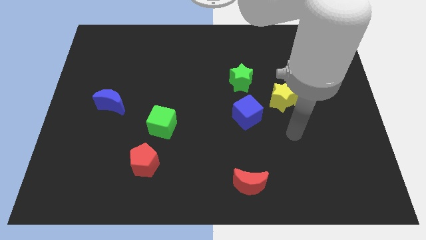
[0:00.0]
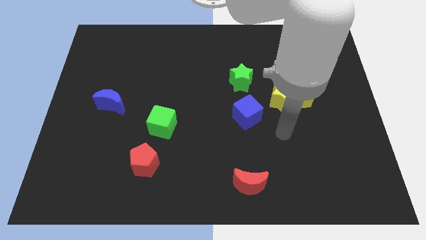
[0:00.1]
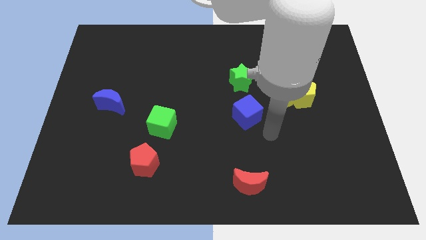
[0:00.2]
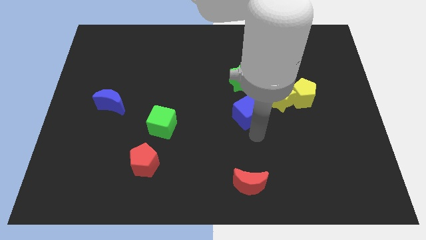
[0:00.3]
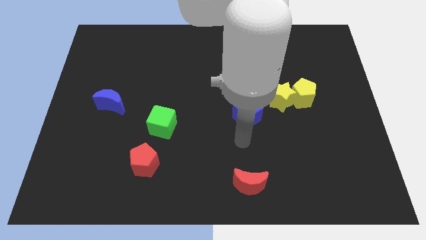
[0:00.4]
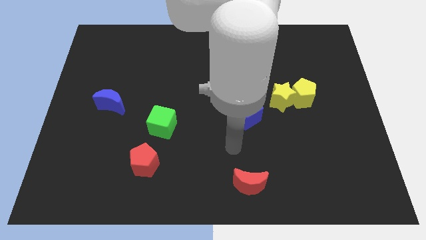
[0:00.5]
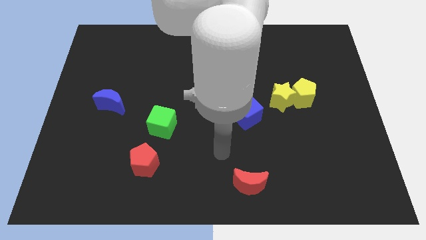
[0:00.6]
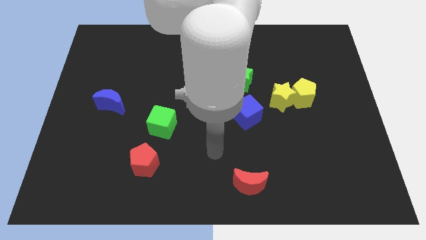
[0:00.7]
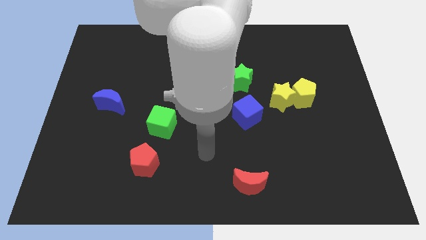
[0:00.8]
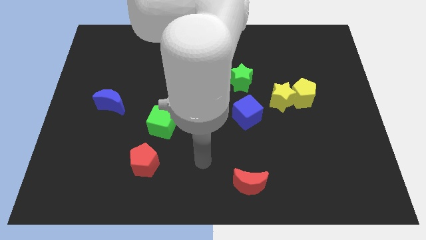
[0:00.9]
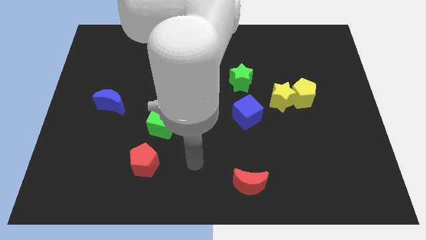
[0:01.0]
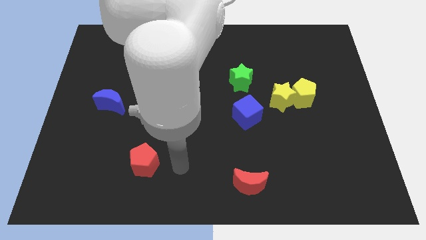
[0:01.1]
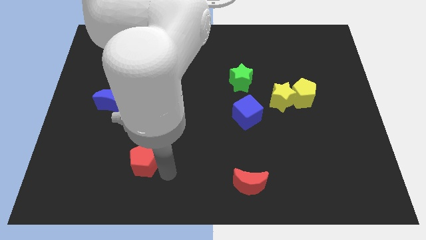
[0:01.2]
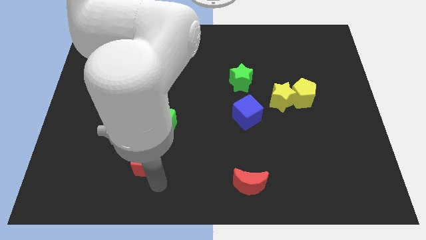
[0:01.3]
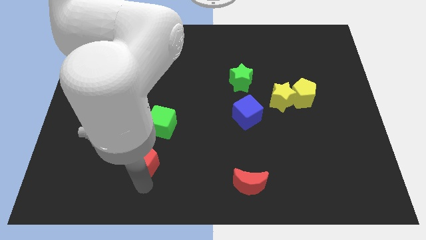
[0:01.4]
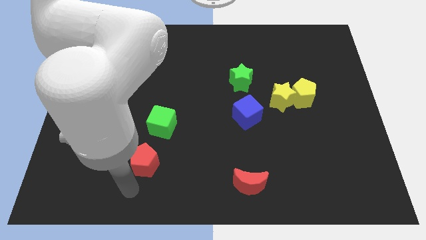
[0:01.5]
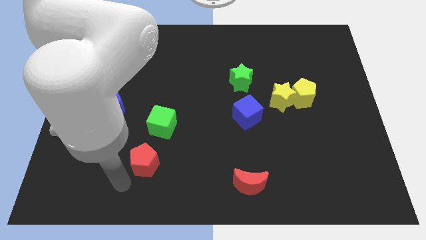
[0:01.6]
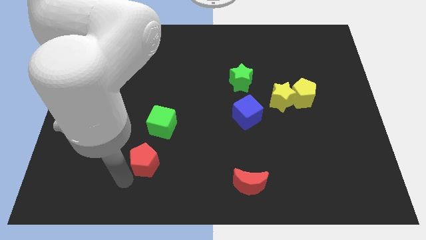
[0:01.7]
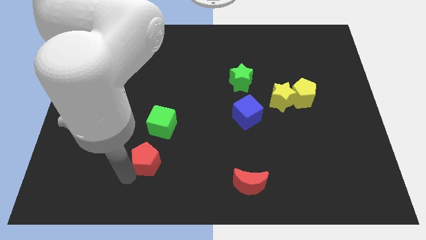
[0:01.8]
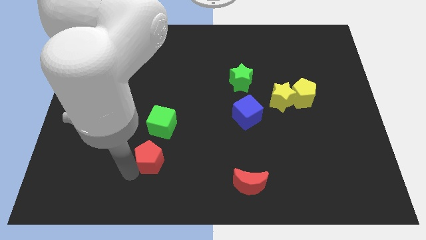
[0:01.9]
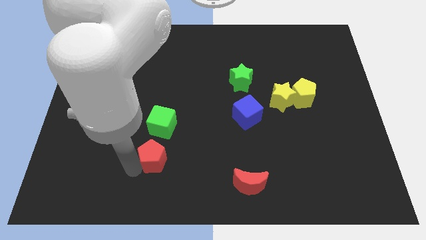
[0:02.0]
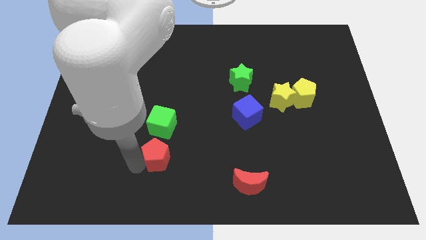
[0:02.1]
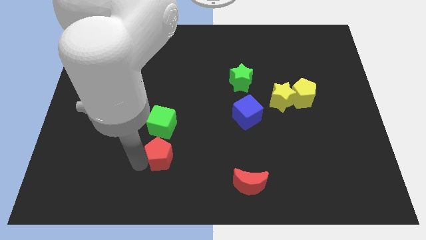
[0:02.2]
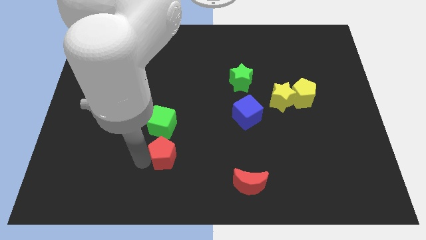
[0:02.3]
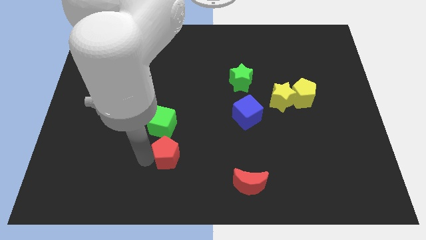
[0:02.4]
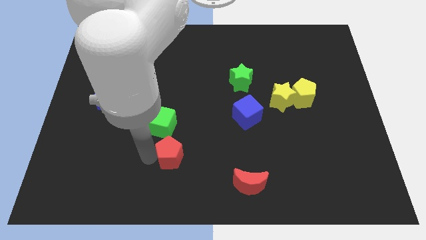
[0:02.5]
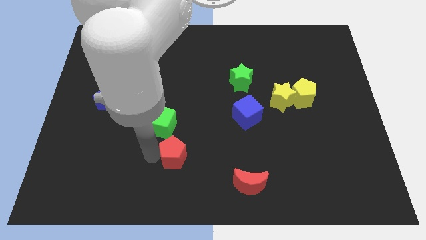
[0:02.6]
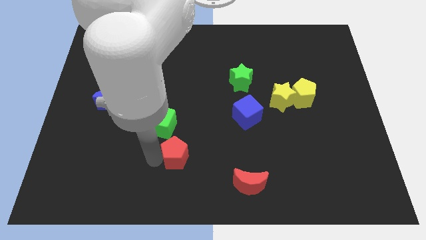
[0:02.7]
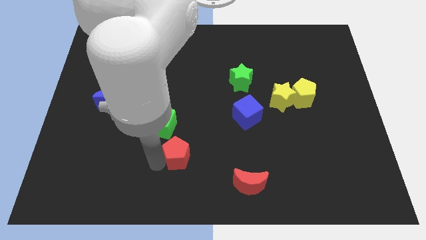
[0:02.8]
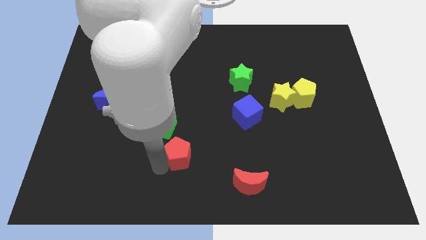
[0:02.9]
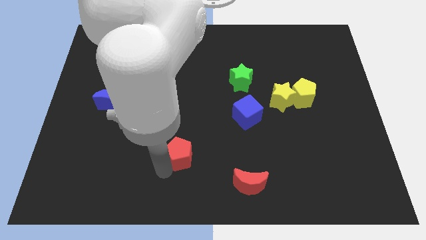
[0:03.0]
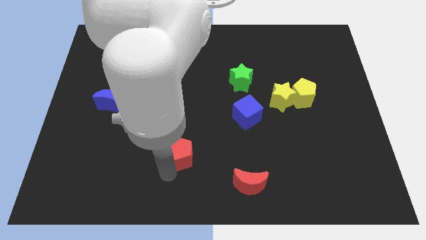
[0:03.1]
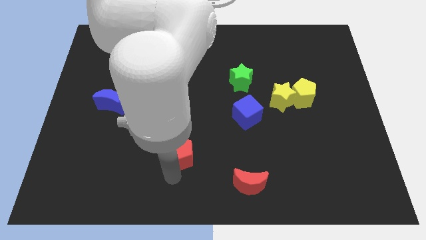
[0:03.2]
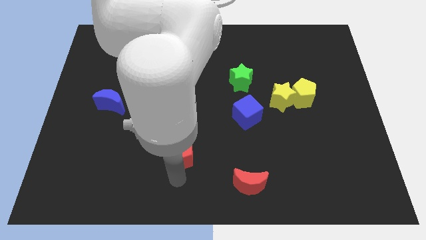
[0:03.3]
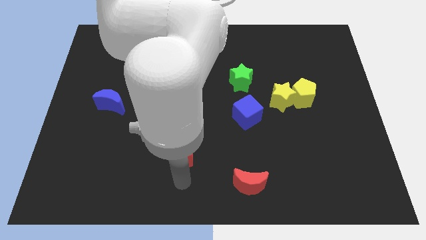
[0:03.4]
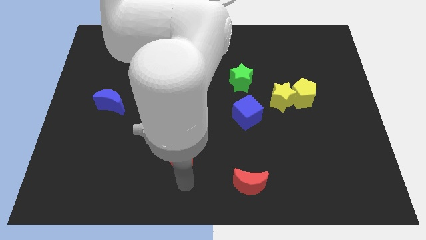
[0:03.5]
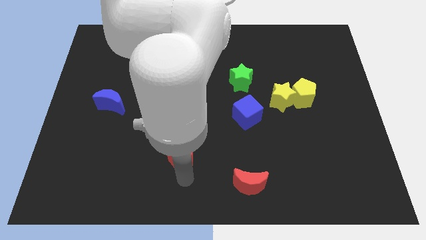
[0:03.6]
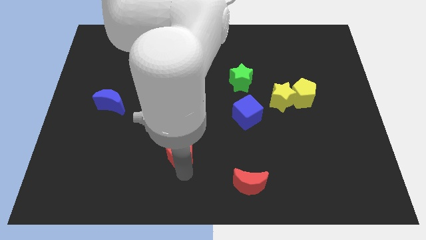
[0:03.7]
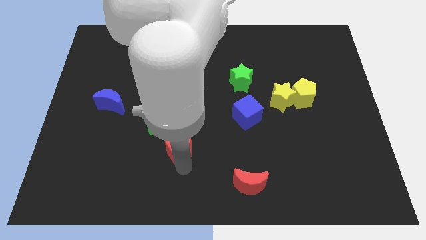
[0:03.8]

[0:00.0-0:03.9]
push the red pentagon up and to the right diagonally a little

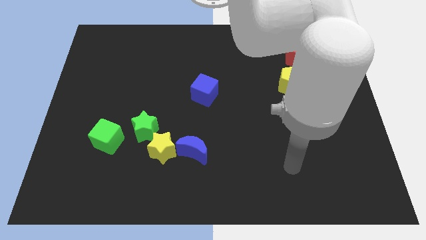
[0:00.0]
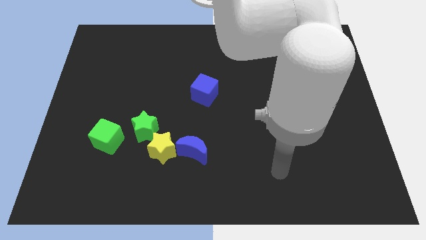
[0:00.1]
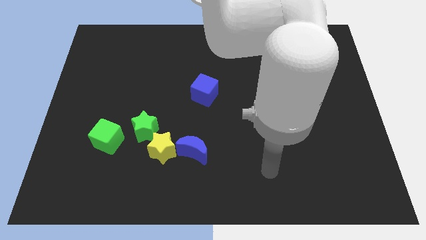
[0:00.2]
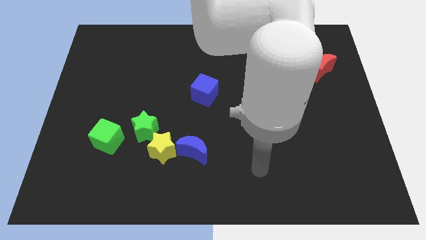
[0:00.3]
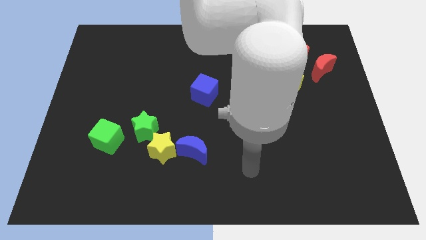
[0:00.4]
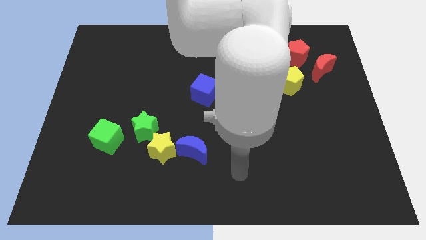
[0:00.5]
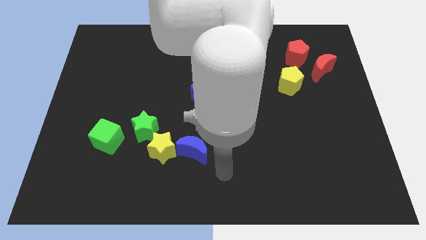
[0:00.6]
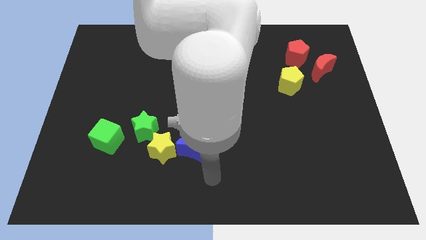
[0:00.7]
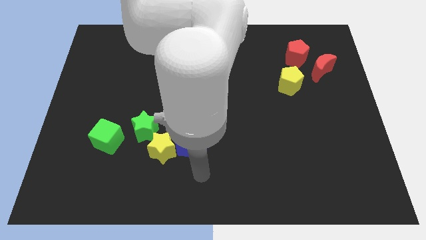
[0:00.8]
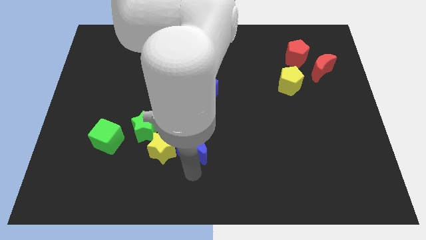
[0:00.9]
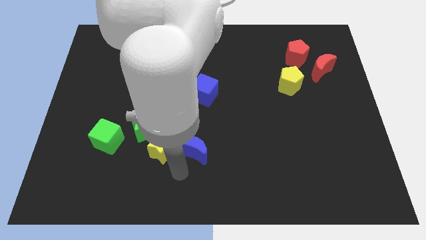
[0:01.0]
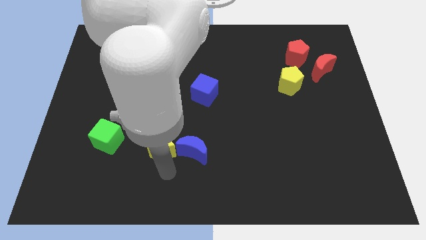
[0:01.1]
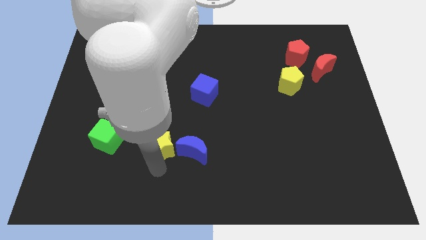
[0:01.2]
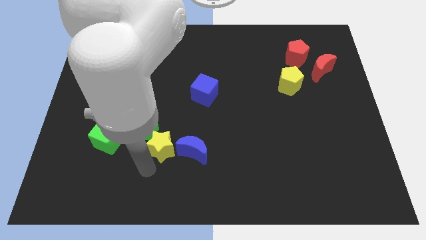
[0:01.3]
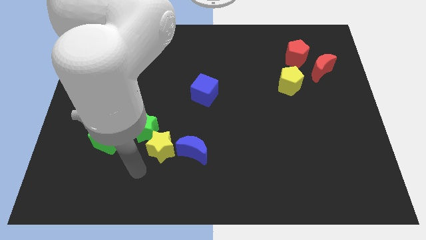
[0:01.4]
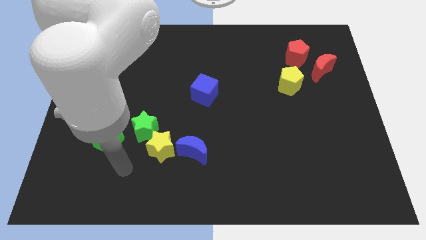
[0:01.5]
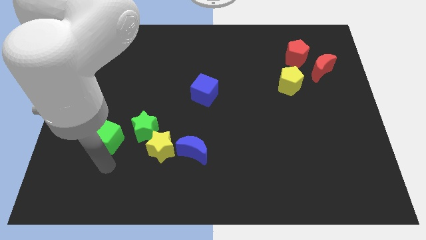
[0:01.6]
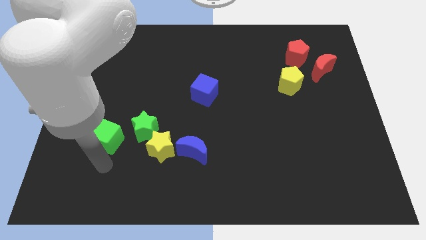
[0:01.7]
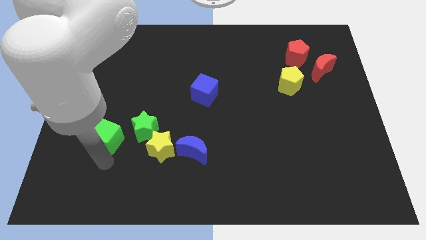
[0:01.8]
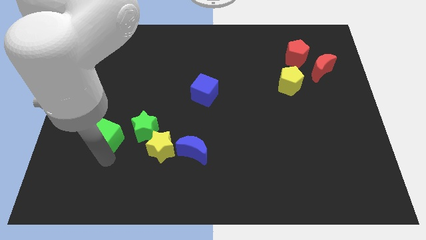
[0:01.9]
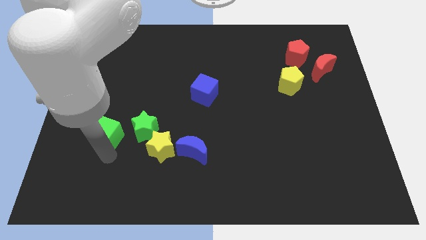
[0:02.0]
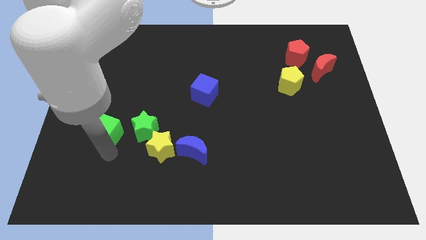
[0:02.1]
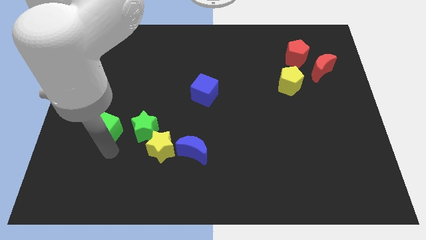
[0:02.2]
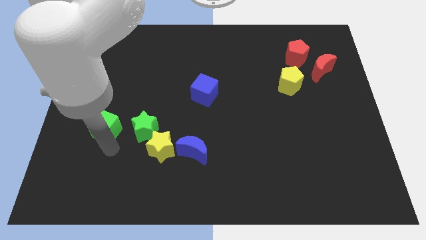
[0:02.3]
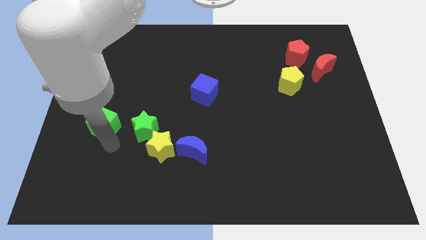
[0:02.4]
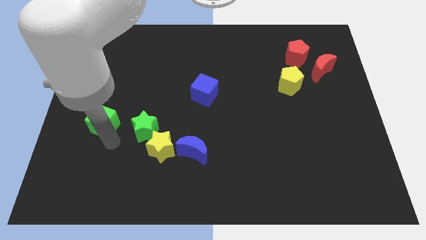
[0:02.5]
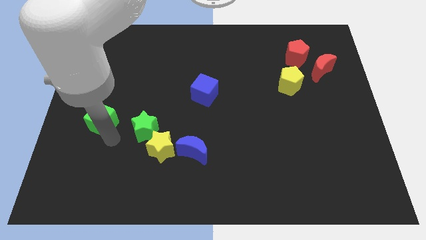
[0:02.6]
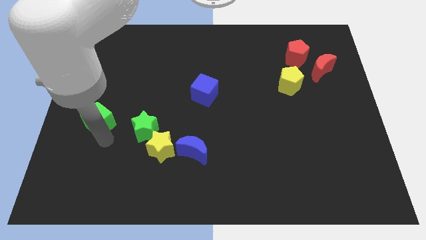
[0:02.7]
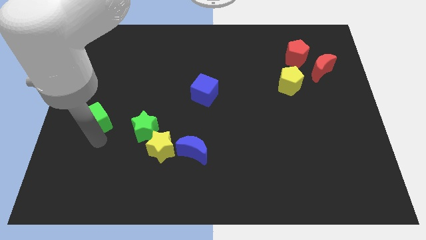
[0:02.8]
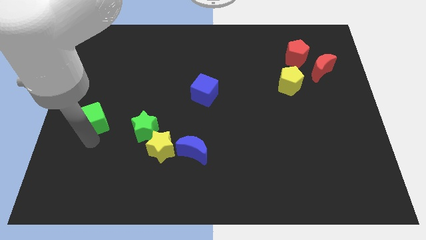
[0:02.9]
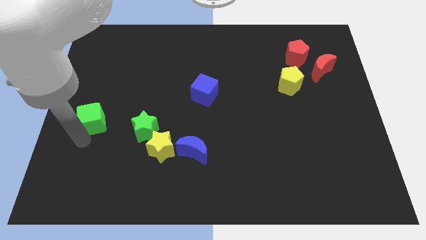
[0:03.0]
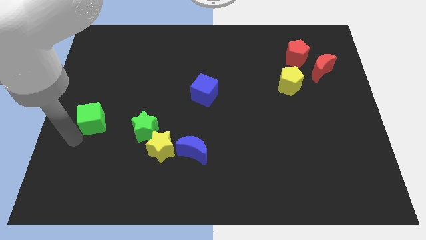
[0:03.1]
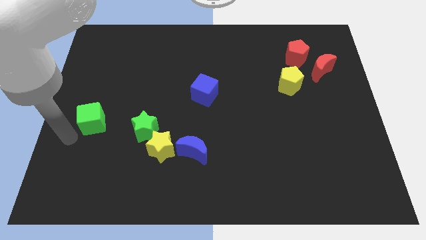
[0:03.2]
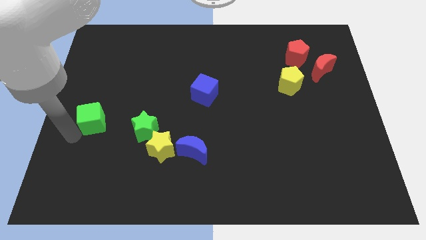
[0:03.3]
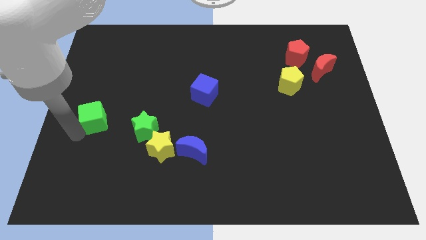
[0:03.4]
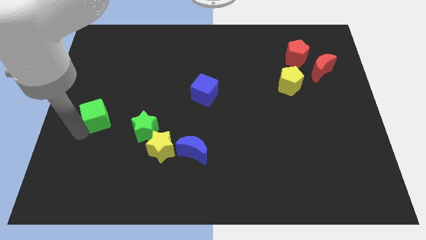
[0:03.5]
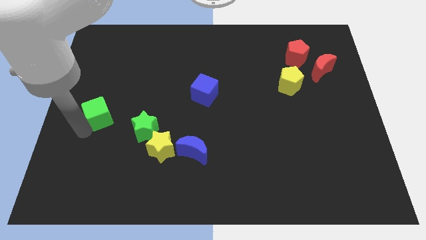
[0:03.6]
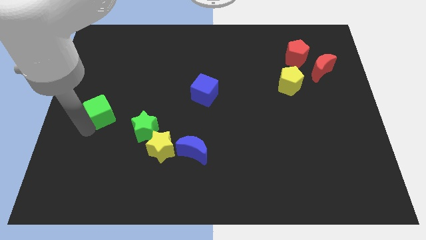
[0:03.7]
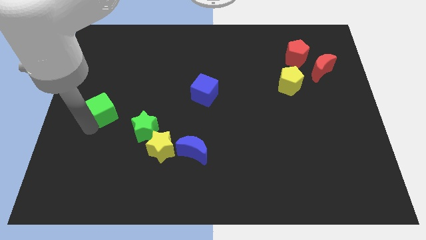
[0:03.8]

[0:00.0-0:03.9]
slightly move the green cube upwards

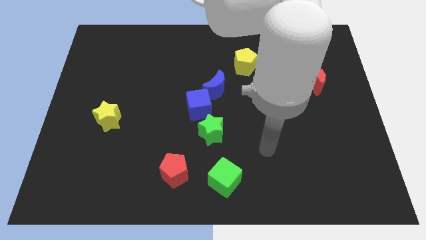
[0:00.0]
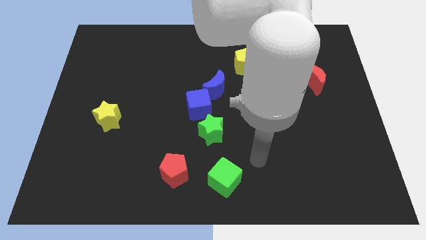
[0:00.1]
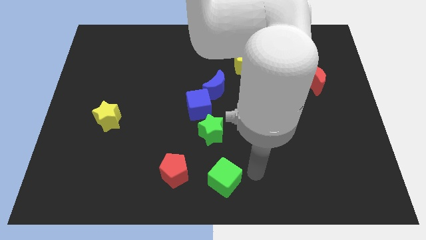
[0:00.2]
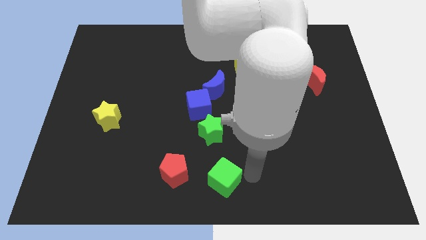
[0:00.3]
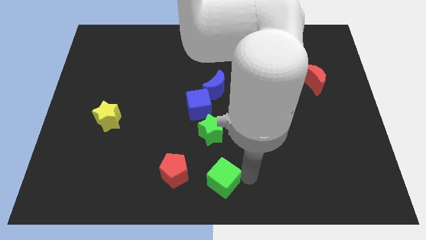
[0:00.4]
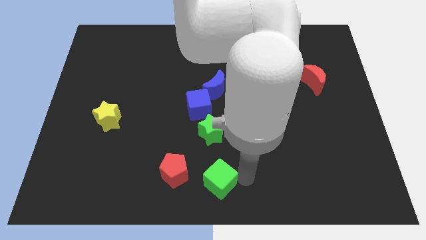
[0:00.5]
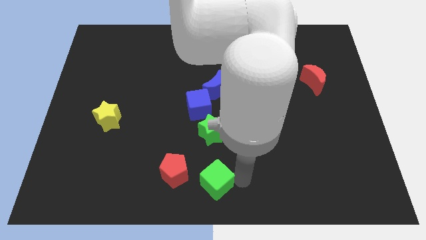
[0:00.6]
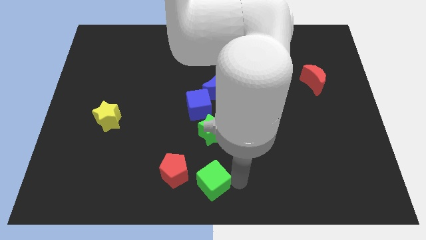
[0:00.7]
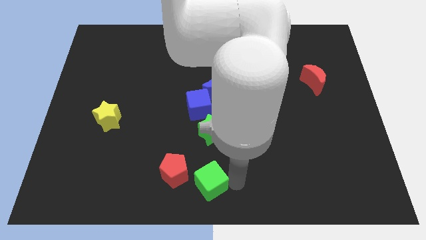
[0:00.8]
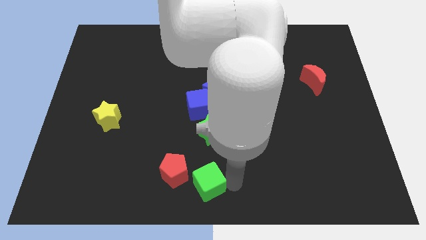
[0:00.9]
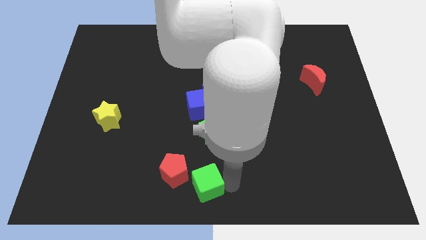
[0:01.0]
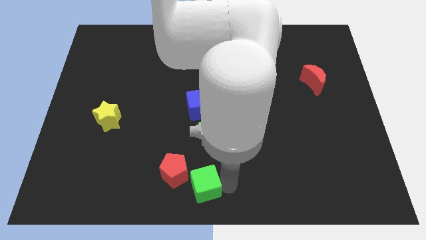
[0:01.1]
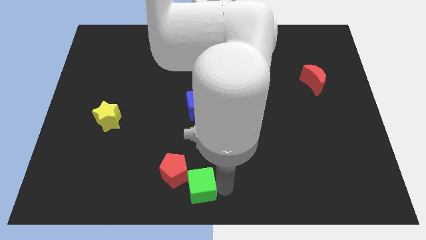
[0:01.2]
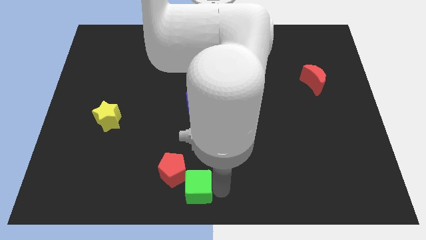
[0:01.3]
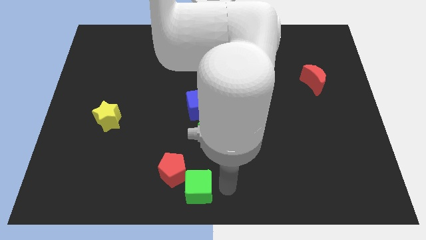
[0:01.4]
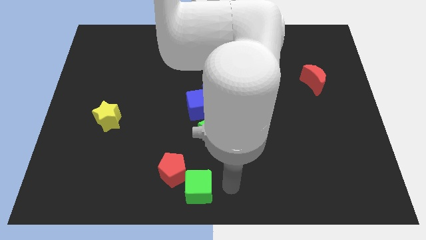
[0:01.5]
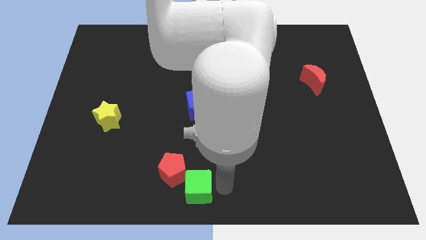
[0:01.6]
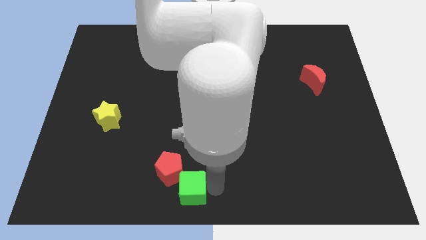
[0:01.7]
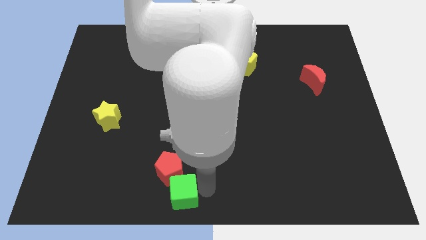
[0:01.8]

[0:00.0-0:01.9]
slightly move the green cube to the left
